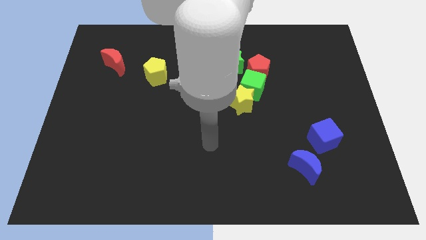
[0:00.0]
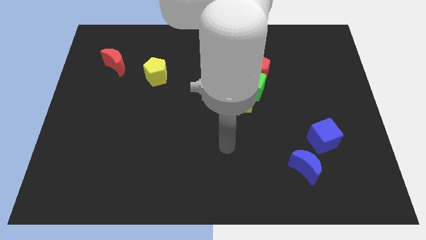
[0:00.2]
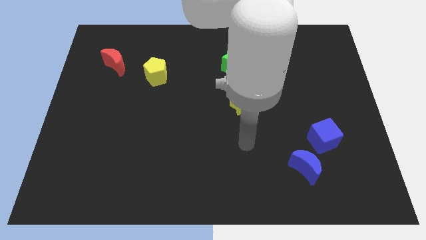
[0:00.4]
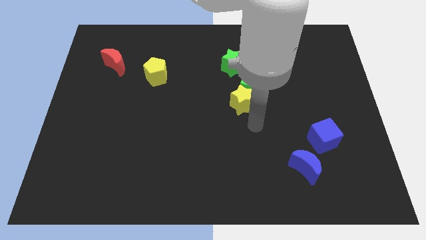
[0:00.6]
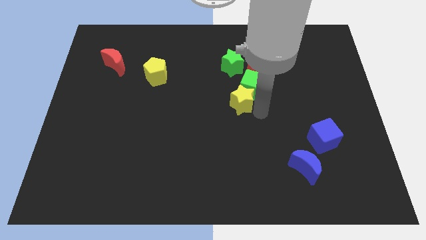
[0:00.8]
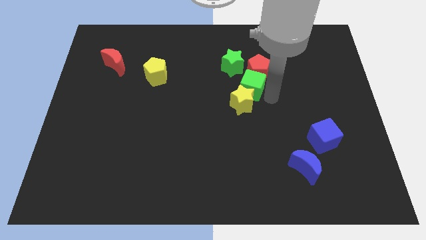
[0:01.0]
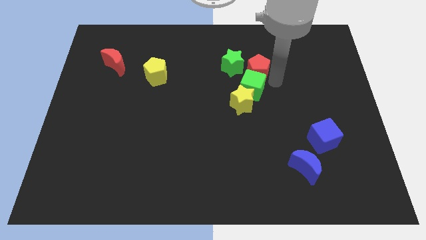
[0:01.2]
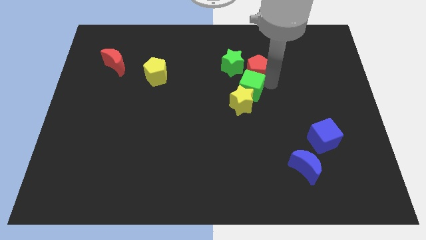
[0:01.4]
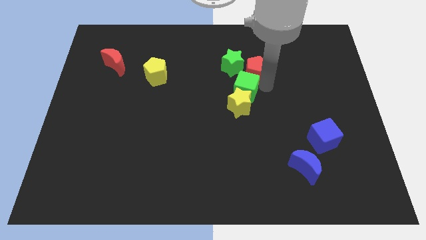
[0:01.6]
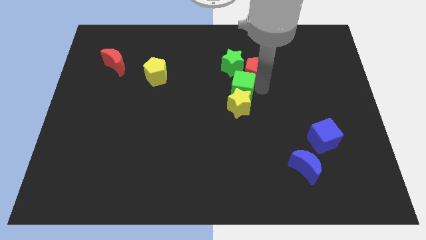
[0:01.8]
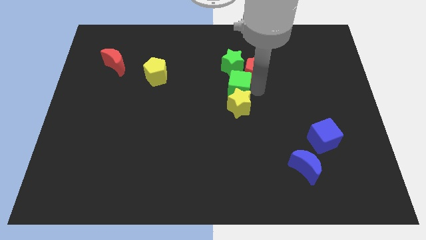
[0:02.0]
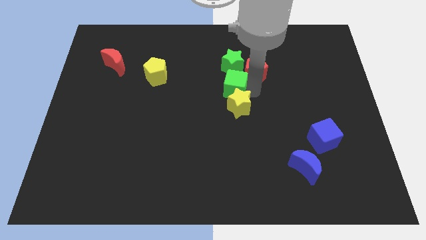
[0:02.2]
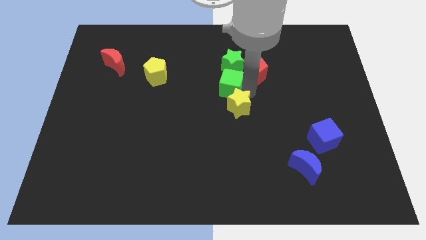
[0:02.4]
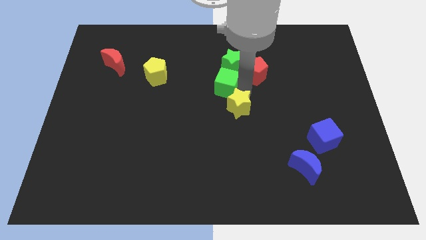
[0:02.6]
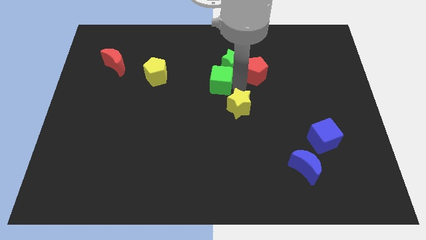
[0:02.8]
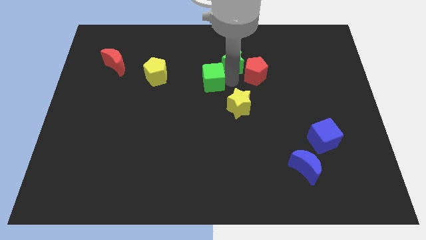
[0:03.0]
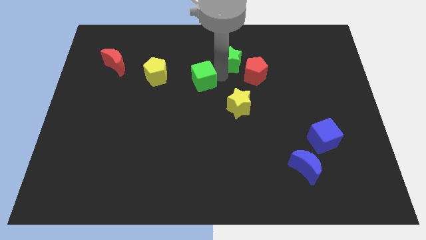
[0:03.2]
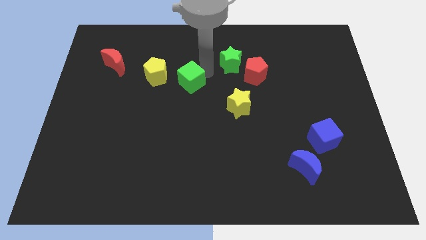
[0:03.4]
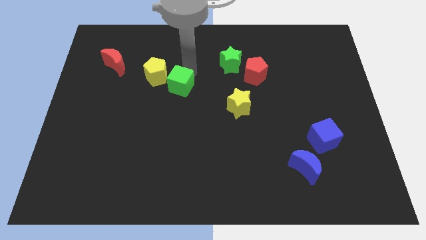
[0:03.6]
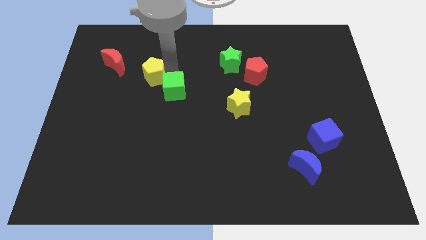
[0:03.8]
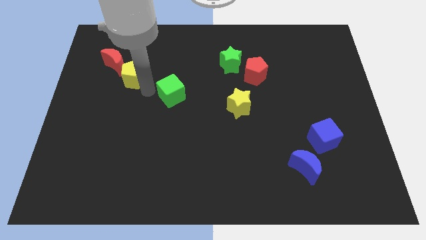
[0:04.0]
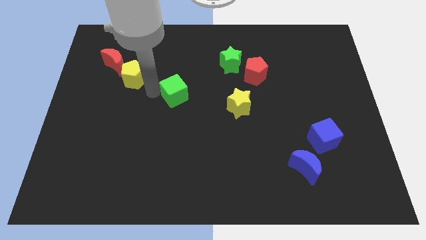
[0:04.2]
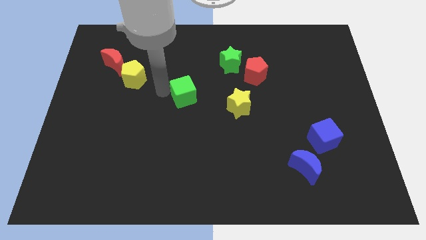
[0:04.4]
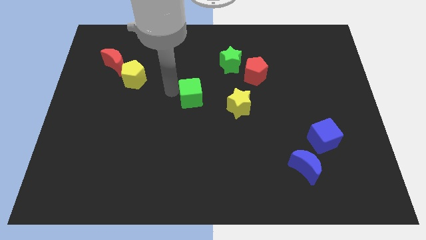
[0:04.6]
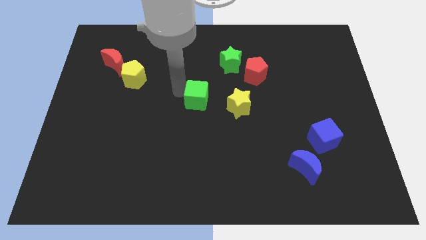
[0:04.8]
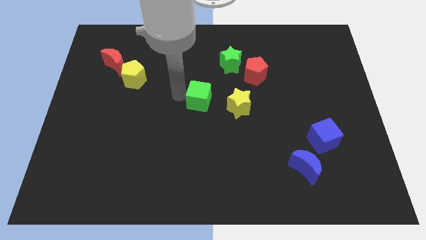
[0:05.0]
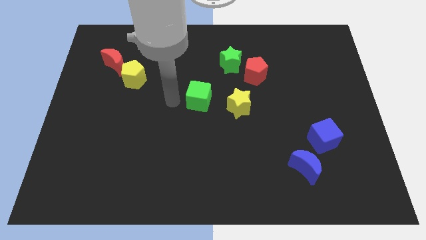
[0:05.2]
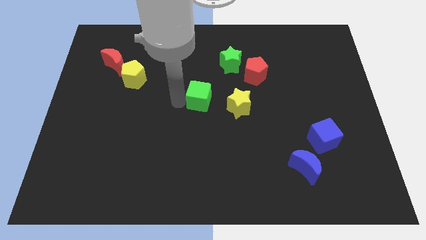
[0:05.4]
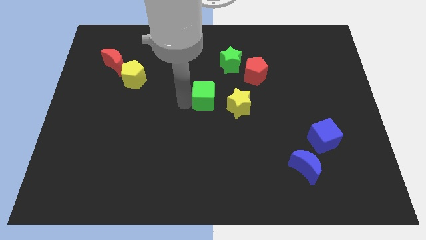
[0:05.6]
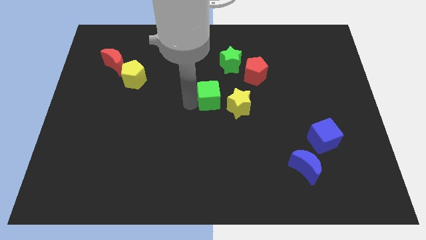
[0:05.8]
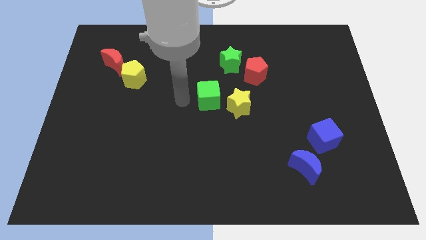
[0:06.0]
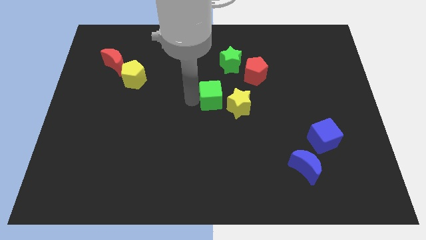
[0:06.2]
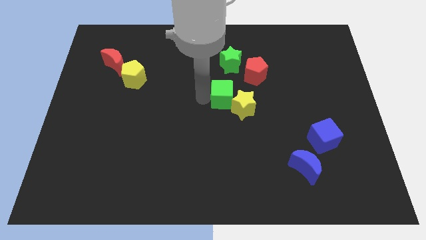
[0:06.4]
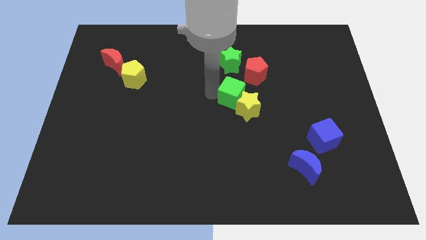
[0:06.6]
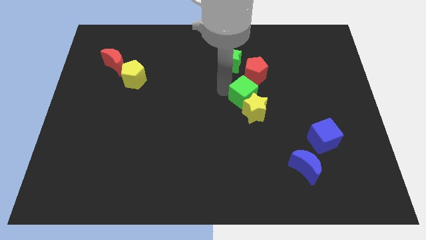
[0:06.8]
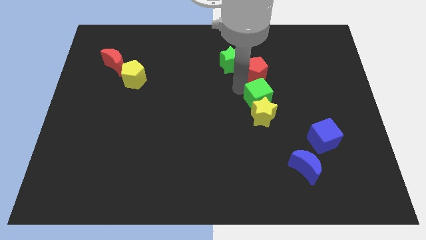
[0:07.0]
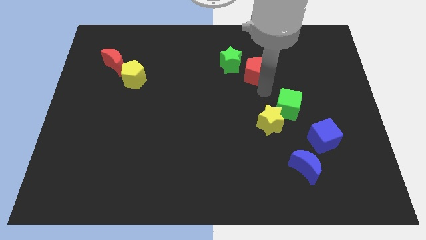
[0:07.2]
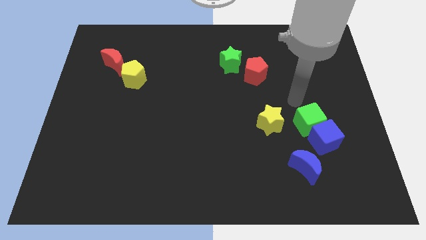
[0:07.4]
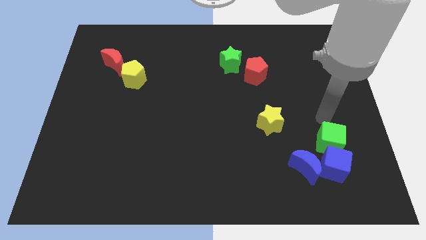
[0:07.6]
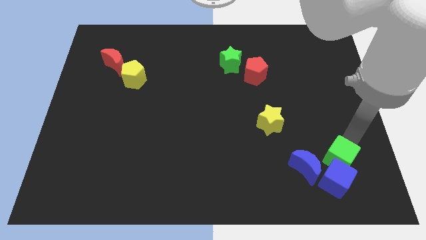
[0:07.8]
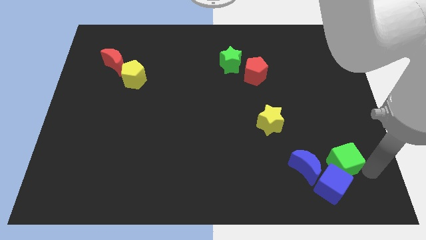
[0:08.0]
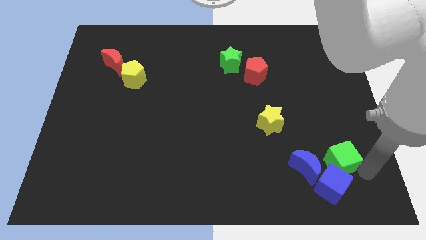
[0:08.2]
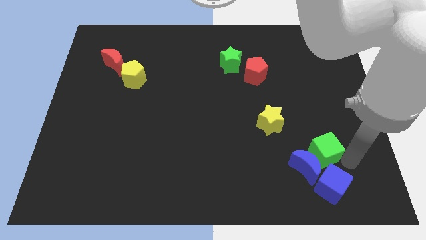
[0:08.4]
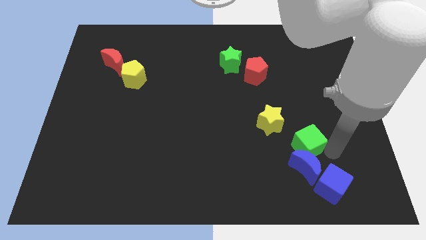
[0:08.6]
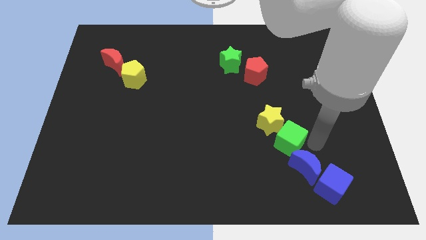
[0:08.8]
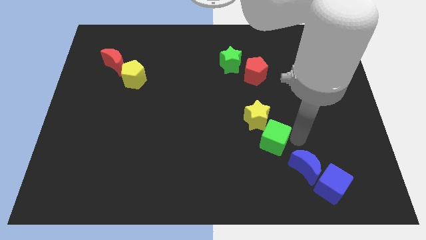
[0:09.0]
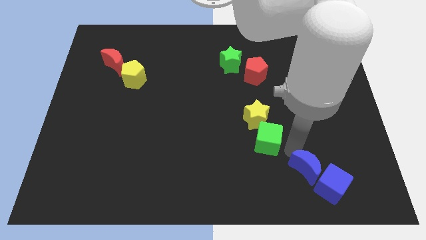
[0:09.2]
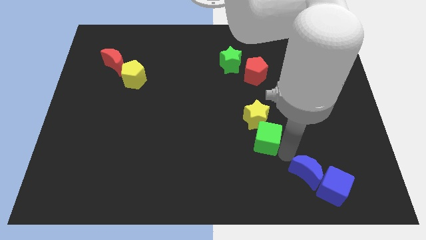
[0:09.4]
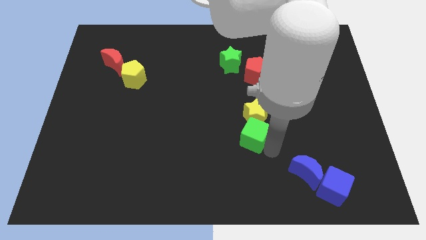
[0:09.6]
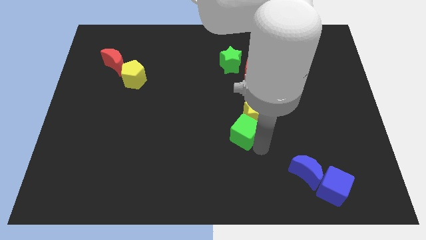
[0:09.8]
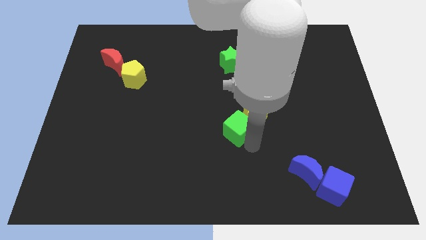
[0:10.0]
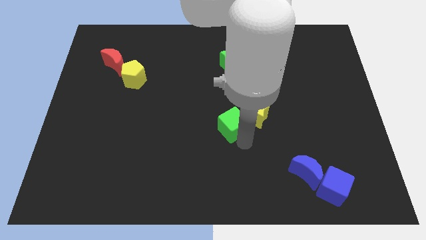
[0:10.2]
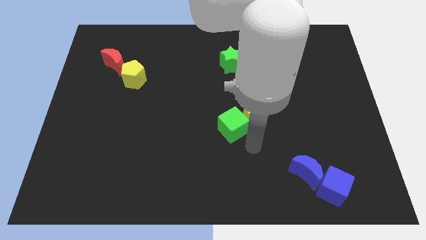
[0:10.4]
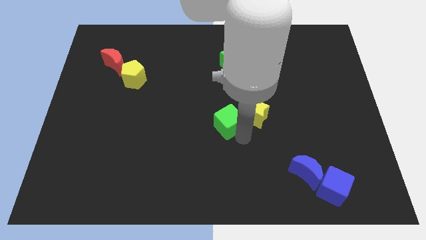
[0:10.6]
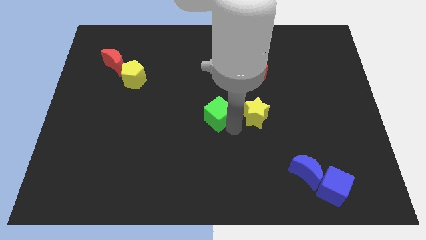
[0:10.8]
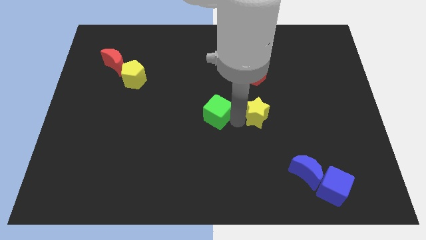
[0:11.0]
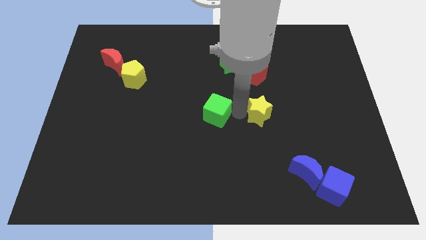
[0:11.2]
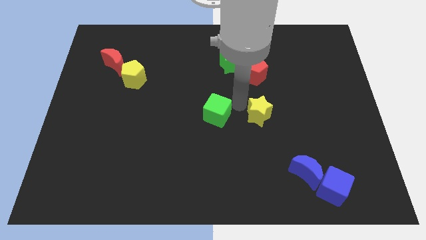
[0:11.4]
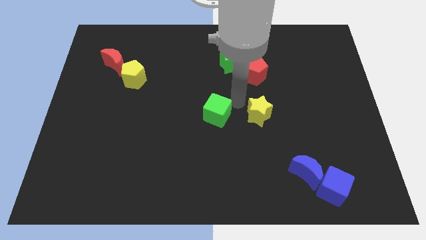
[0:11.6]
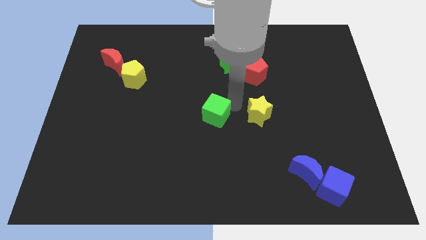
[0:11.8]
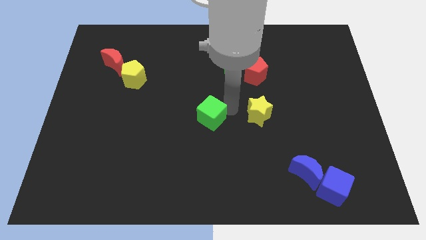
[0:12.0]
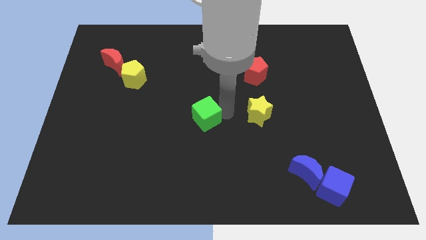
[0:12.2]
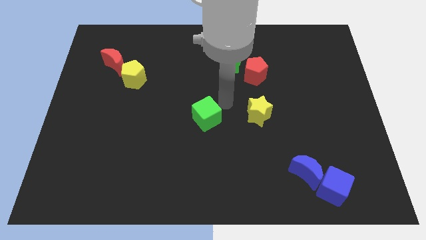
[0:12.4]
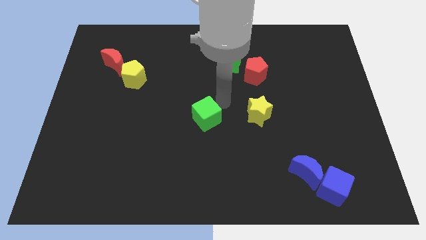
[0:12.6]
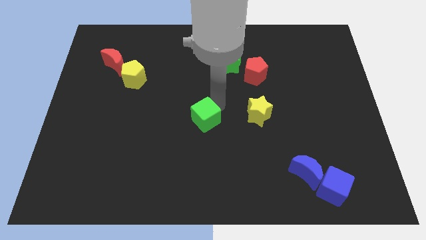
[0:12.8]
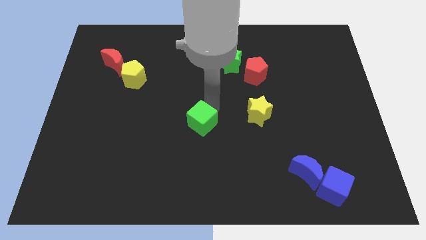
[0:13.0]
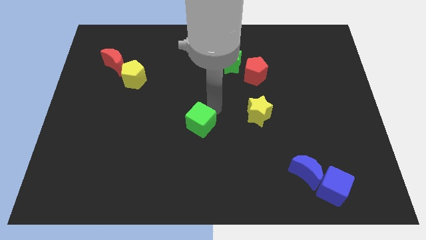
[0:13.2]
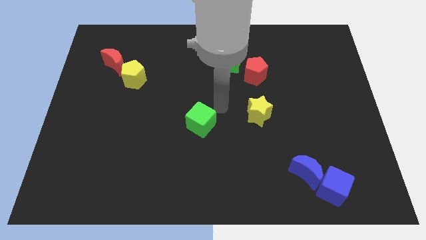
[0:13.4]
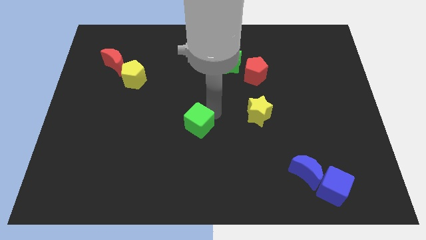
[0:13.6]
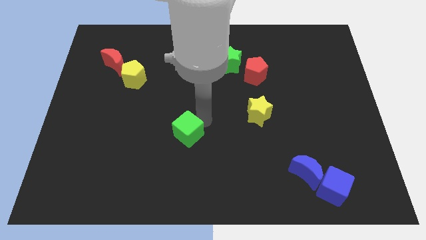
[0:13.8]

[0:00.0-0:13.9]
push the green cube downwards and to the left

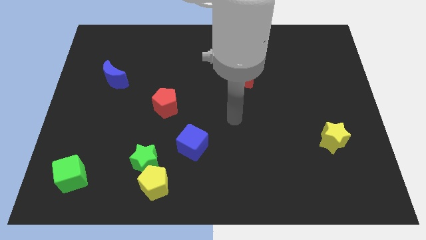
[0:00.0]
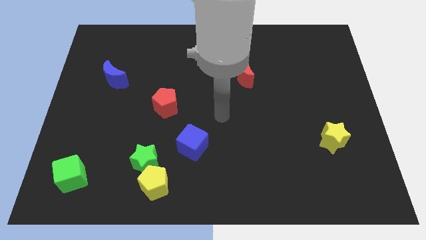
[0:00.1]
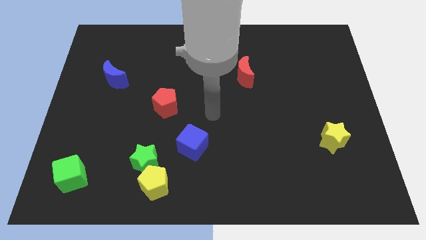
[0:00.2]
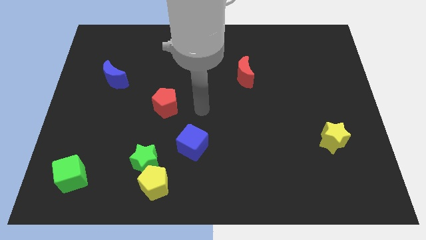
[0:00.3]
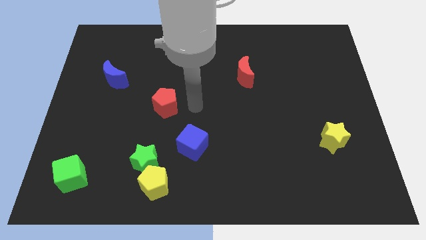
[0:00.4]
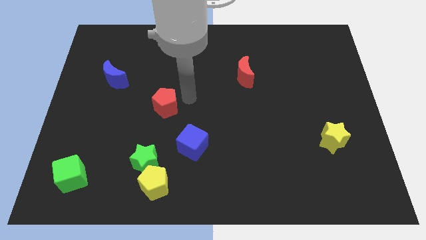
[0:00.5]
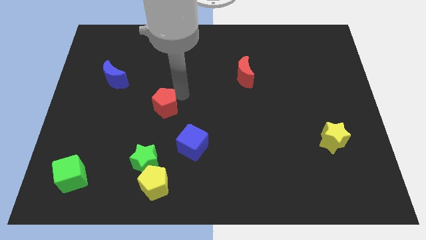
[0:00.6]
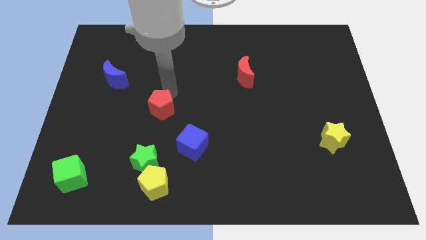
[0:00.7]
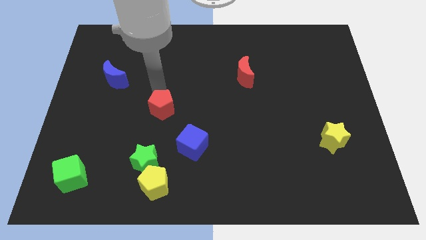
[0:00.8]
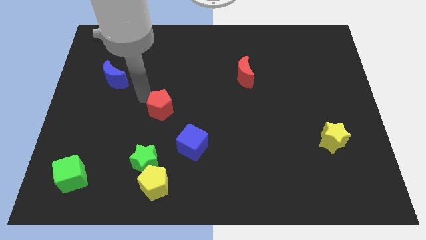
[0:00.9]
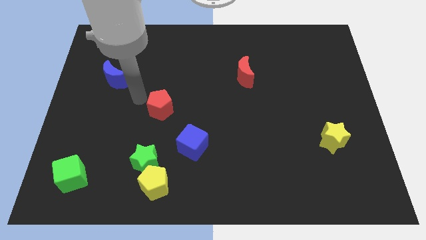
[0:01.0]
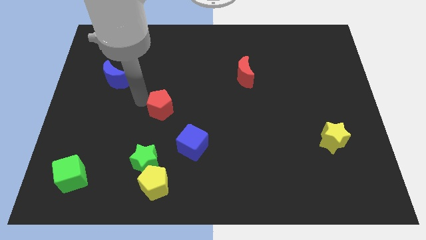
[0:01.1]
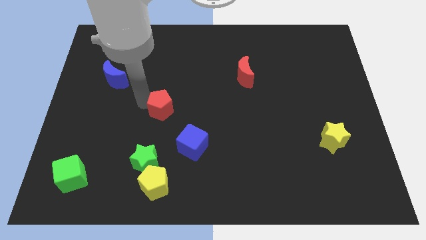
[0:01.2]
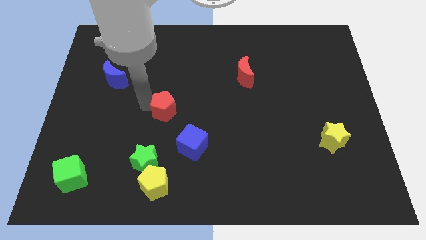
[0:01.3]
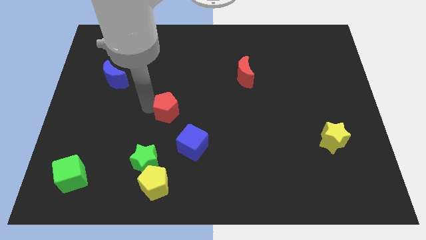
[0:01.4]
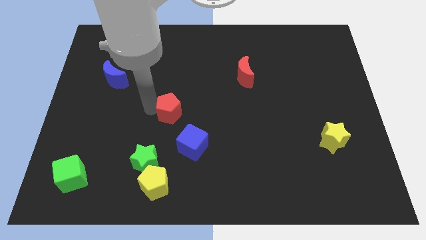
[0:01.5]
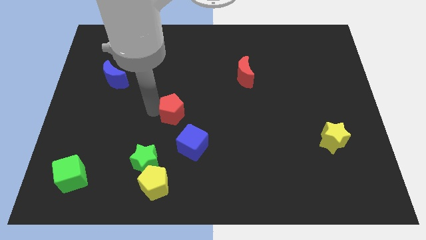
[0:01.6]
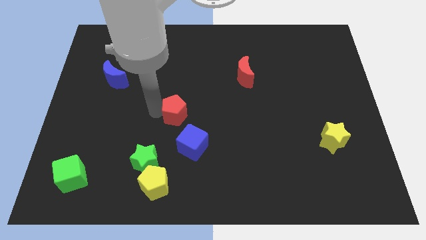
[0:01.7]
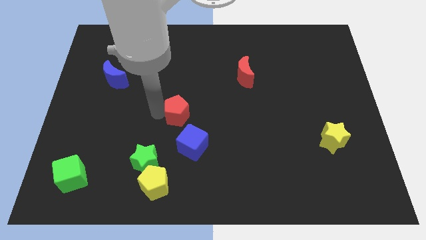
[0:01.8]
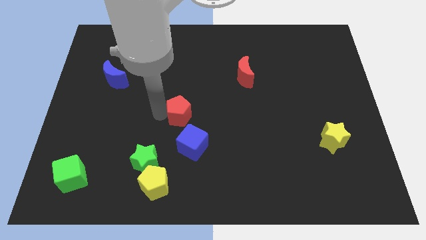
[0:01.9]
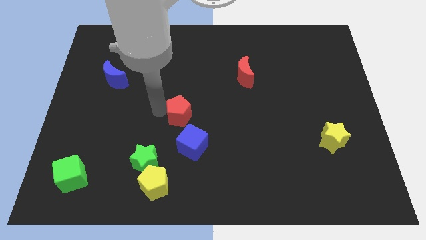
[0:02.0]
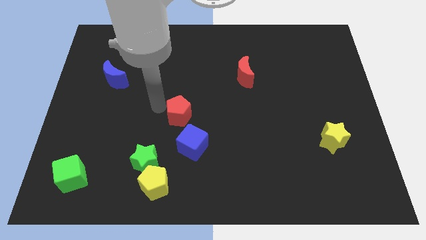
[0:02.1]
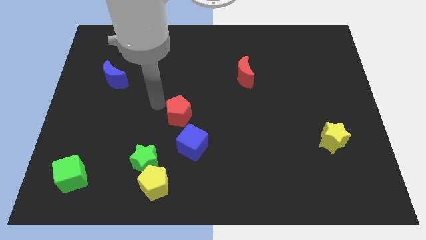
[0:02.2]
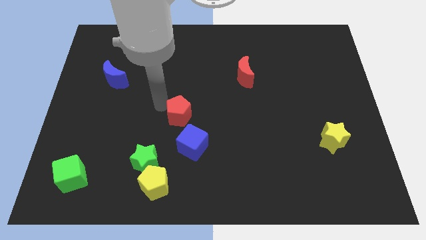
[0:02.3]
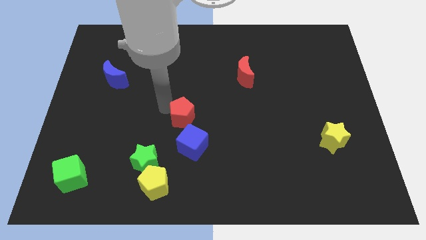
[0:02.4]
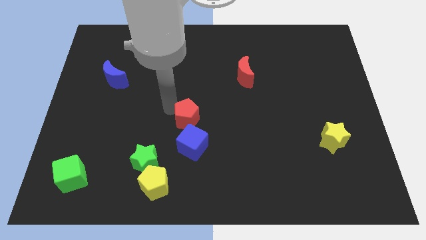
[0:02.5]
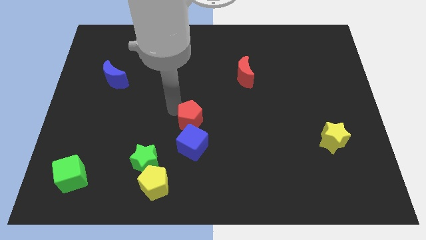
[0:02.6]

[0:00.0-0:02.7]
push the red pentagon down and then right a little
